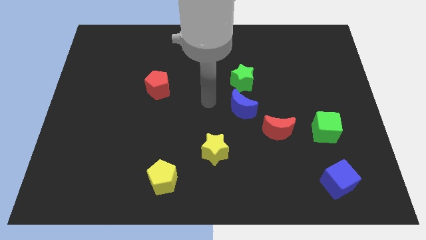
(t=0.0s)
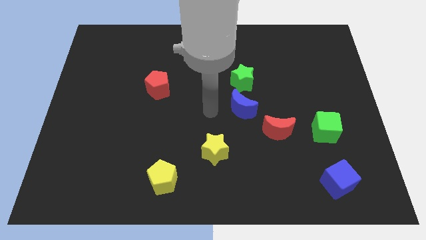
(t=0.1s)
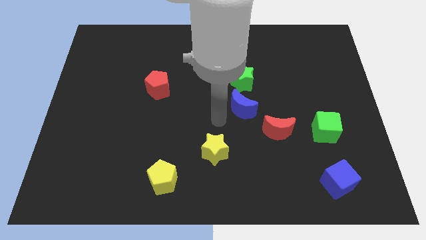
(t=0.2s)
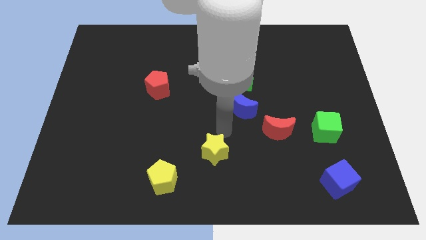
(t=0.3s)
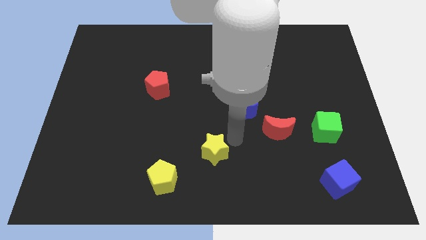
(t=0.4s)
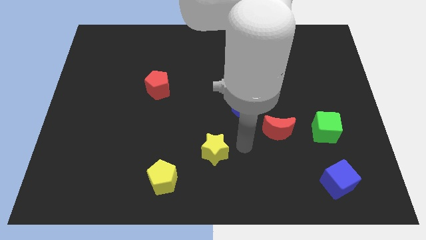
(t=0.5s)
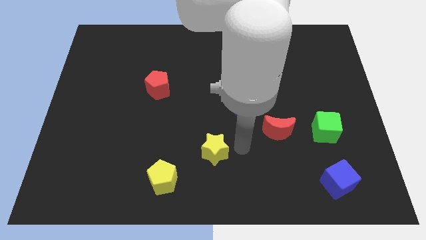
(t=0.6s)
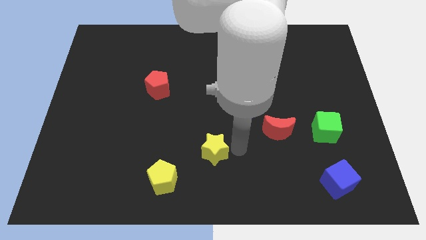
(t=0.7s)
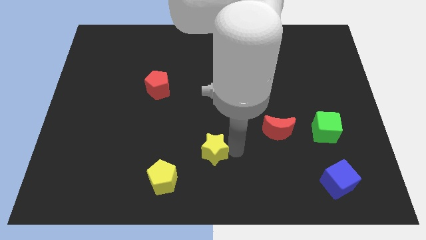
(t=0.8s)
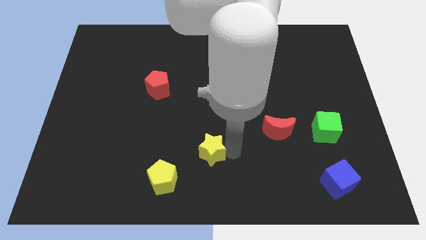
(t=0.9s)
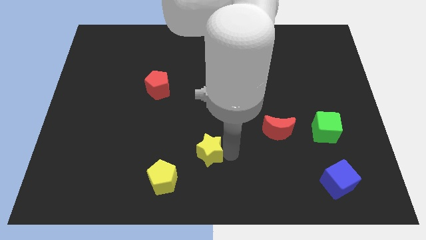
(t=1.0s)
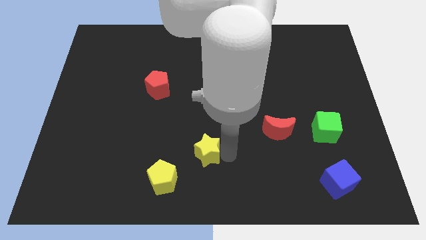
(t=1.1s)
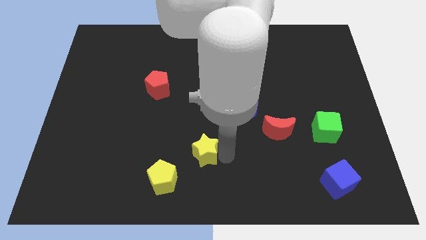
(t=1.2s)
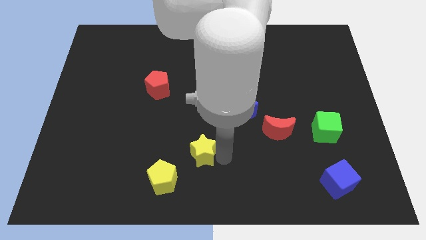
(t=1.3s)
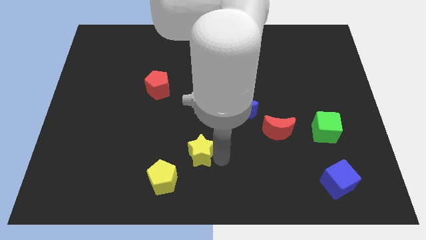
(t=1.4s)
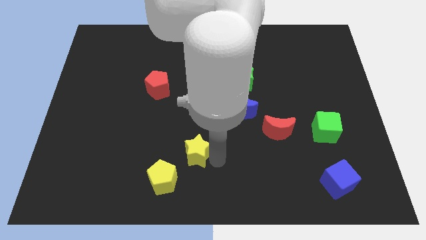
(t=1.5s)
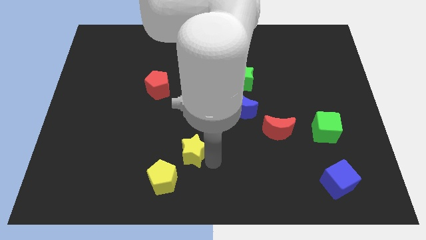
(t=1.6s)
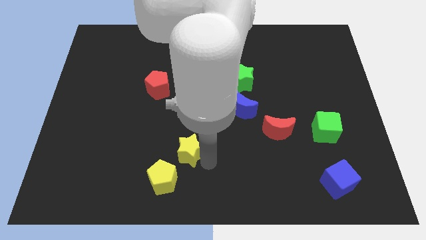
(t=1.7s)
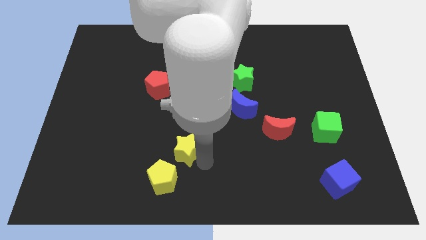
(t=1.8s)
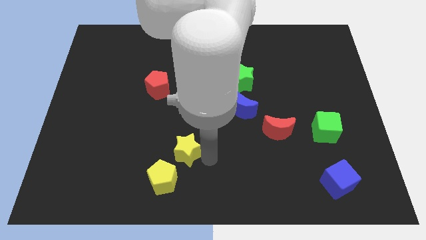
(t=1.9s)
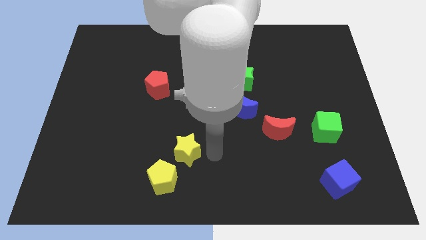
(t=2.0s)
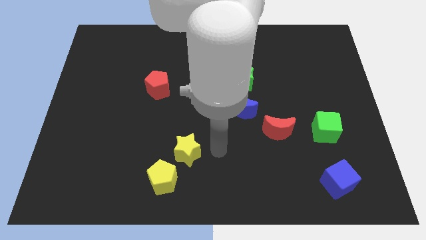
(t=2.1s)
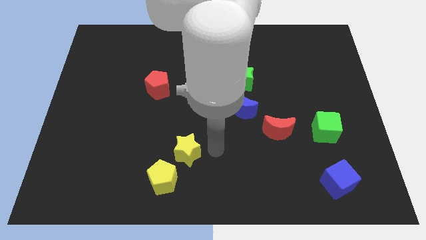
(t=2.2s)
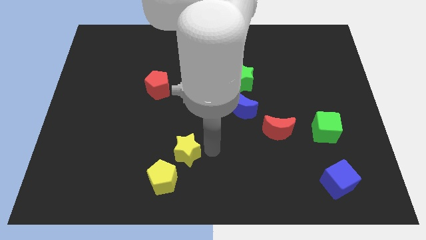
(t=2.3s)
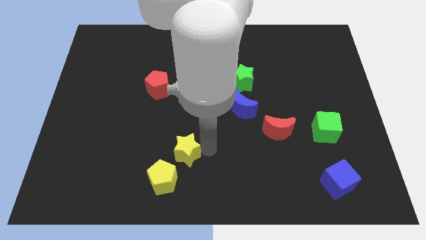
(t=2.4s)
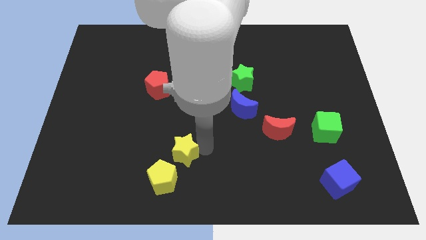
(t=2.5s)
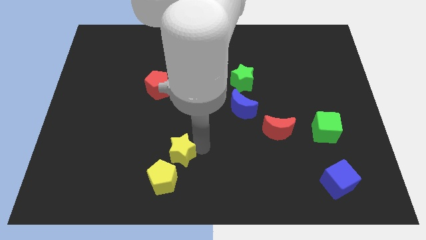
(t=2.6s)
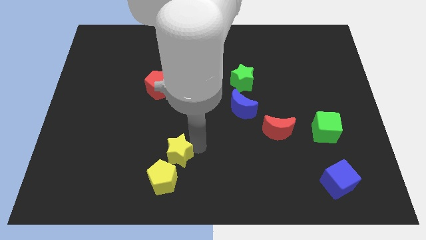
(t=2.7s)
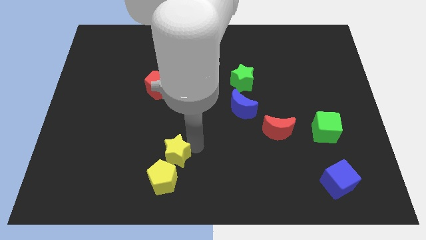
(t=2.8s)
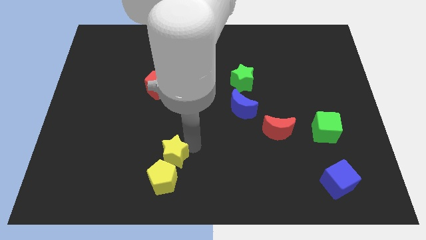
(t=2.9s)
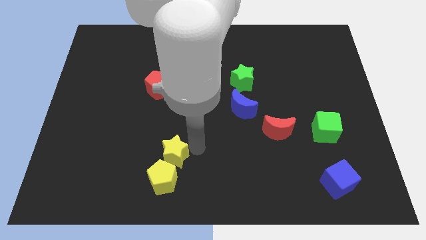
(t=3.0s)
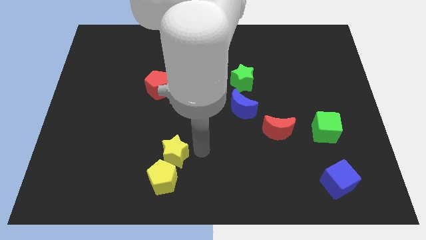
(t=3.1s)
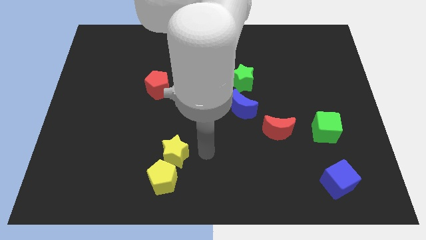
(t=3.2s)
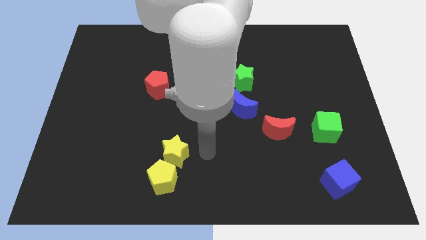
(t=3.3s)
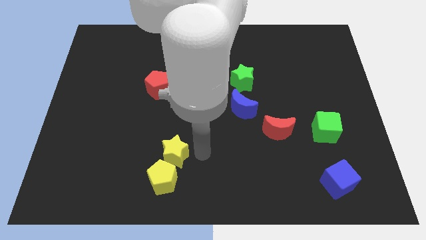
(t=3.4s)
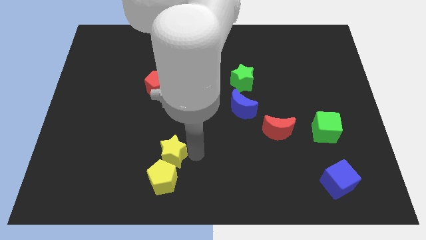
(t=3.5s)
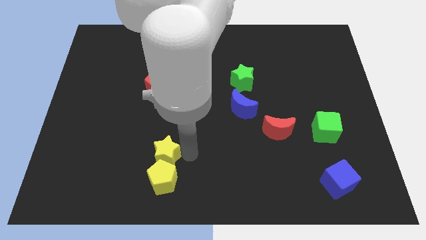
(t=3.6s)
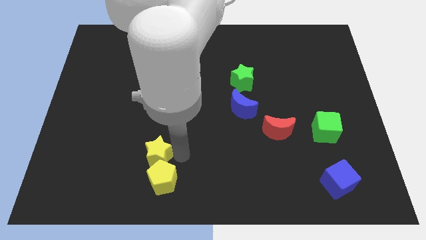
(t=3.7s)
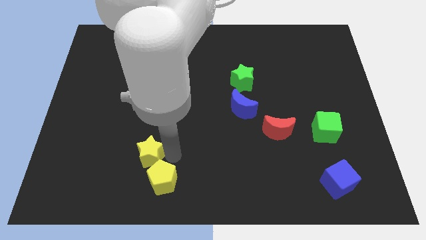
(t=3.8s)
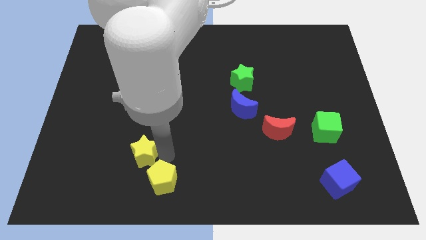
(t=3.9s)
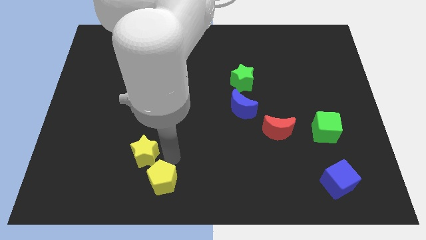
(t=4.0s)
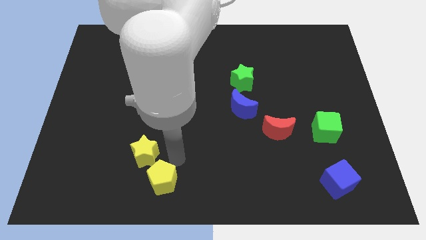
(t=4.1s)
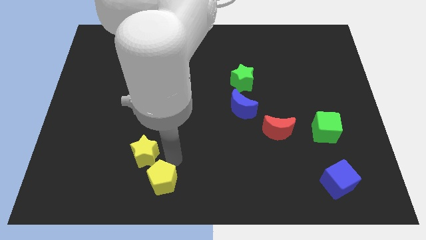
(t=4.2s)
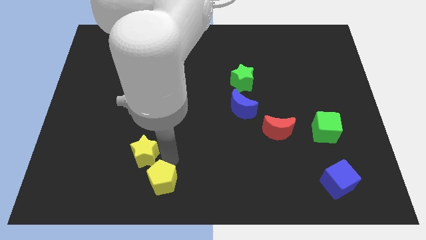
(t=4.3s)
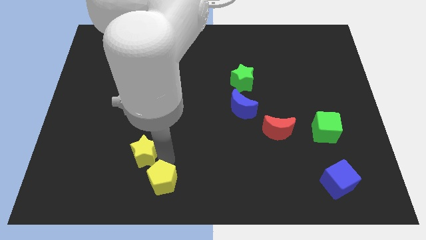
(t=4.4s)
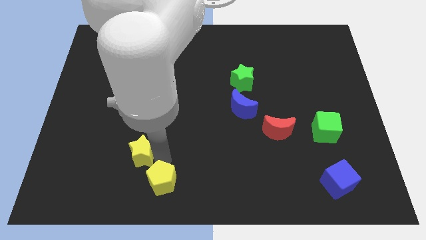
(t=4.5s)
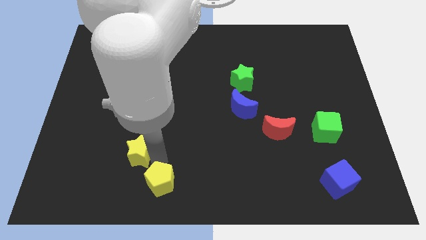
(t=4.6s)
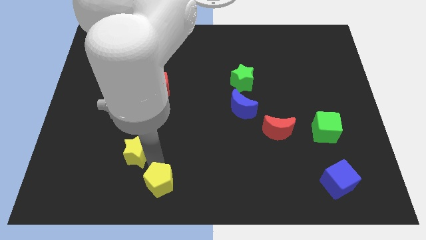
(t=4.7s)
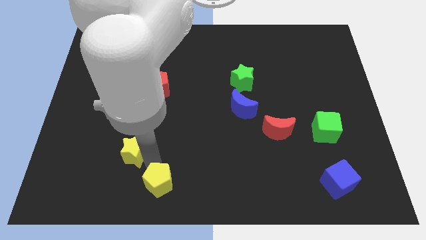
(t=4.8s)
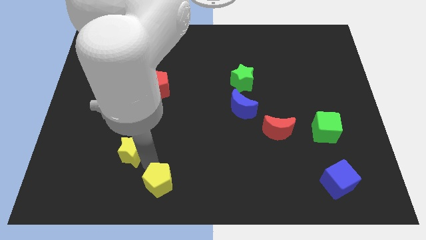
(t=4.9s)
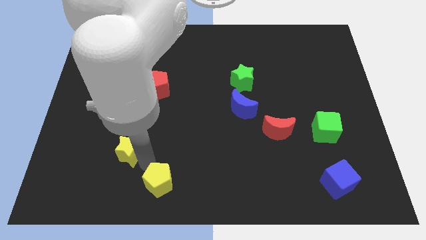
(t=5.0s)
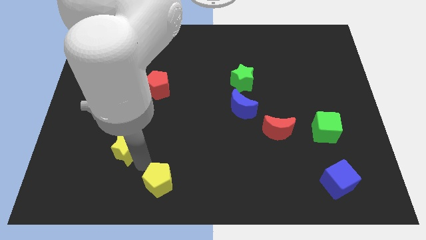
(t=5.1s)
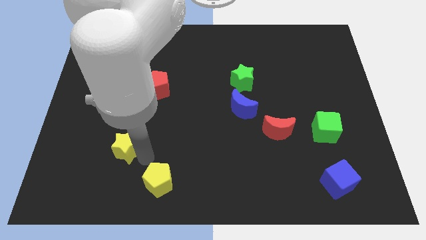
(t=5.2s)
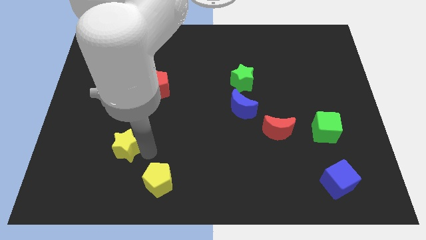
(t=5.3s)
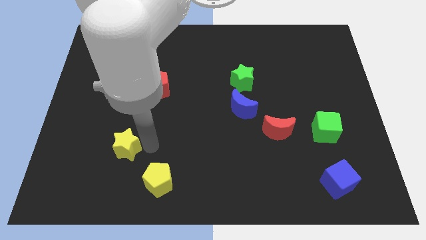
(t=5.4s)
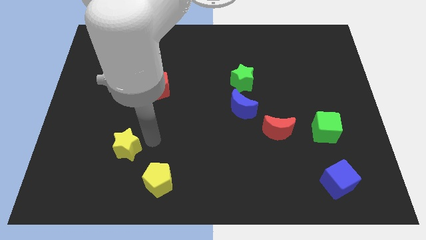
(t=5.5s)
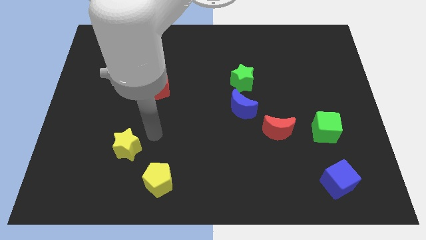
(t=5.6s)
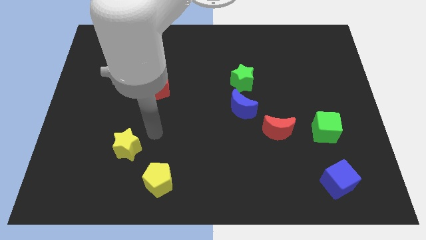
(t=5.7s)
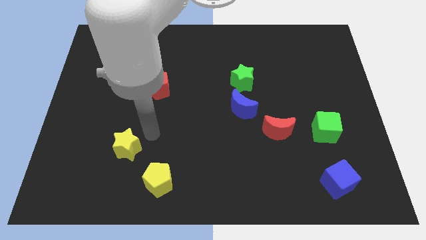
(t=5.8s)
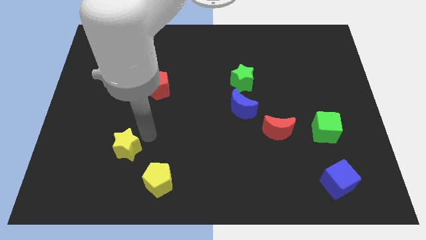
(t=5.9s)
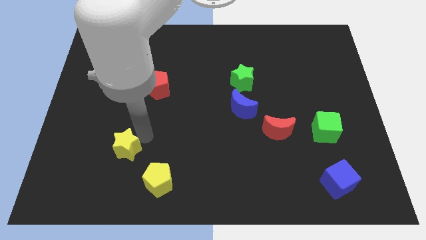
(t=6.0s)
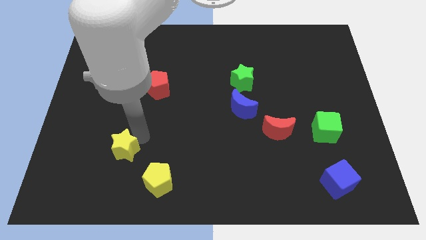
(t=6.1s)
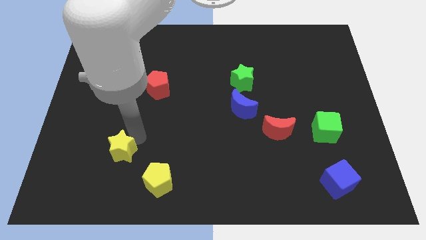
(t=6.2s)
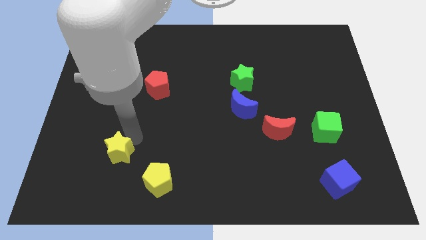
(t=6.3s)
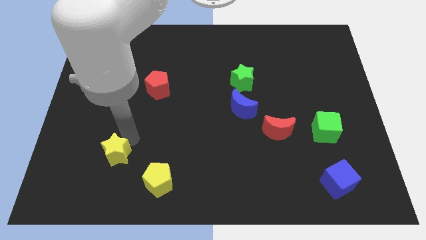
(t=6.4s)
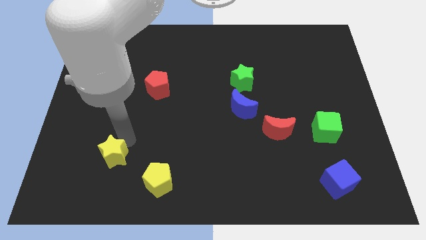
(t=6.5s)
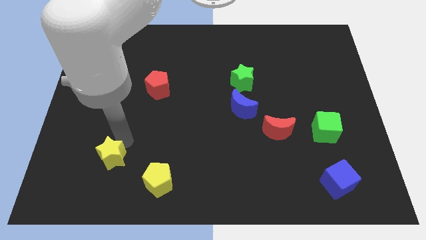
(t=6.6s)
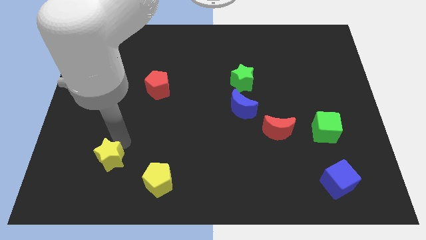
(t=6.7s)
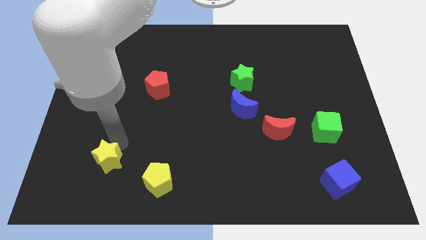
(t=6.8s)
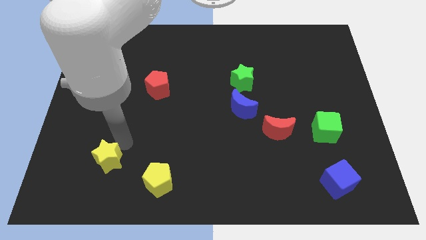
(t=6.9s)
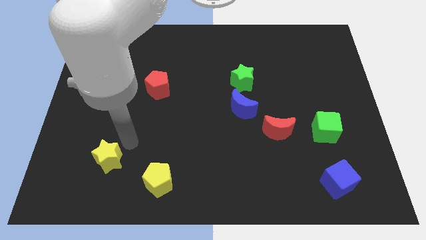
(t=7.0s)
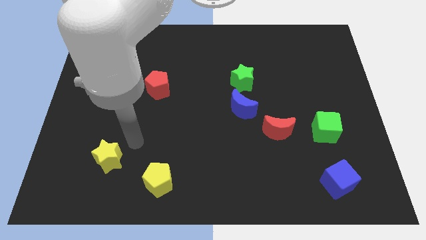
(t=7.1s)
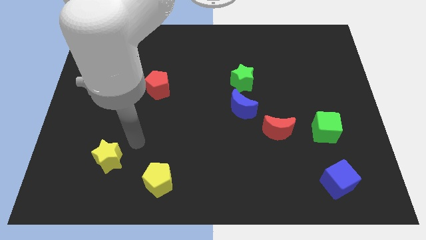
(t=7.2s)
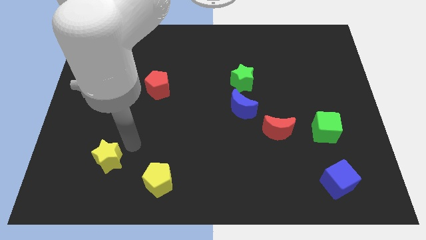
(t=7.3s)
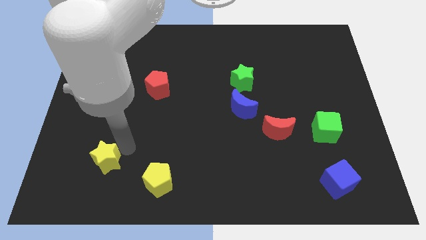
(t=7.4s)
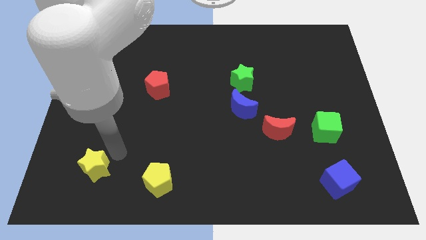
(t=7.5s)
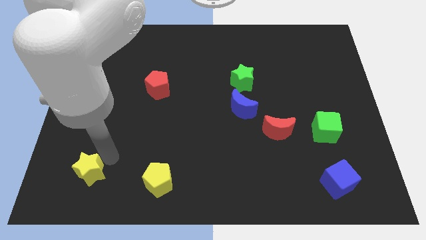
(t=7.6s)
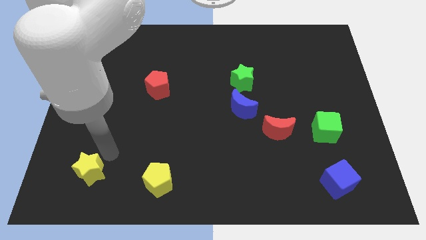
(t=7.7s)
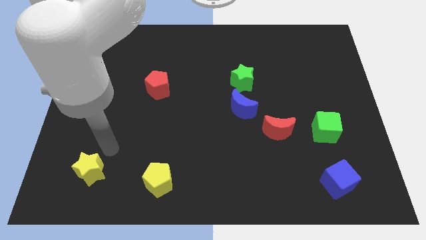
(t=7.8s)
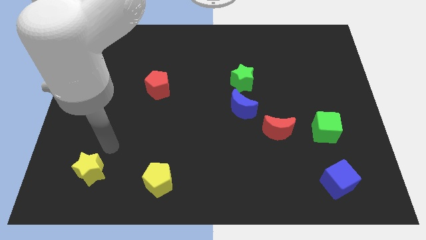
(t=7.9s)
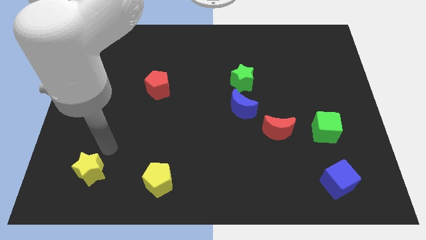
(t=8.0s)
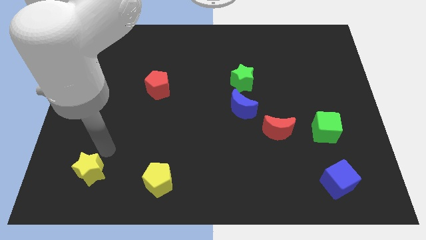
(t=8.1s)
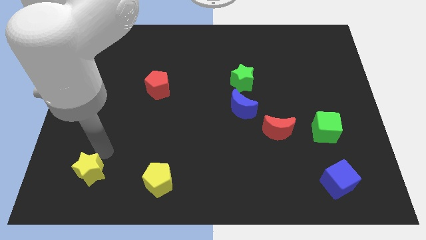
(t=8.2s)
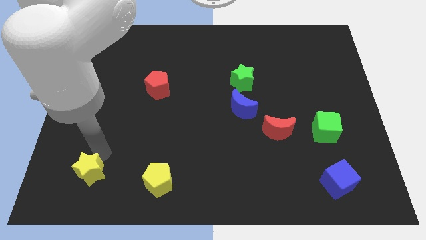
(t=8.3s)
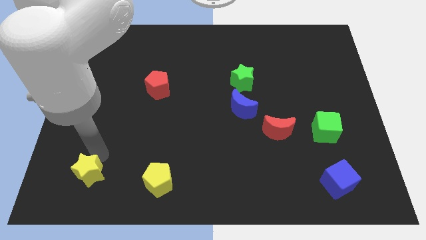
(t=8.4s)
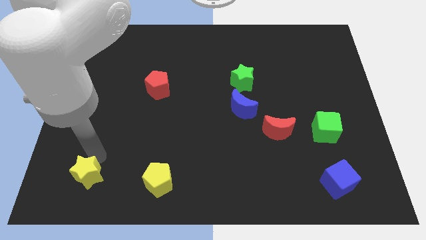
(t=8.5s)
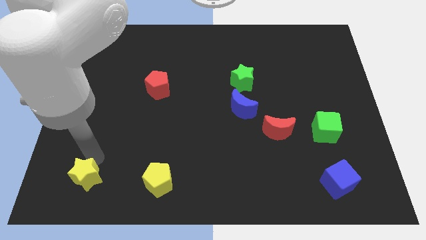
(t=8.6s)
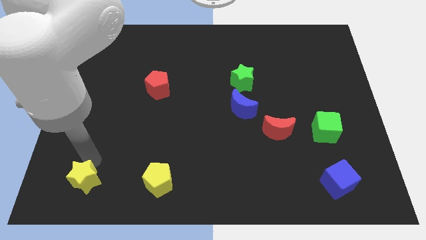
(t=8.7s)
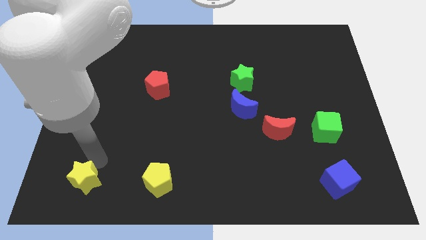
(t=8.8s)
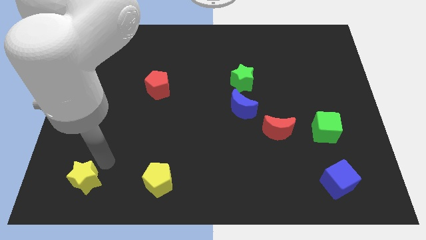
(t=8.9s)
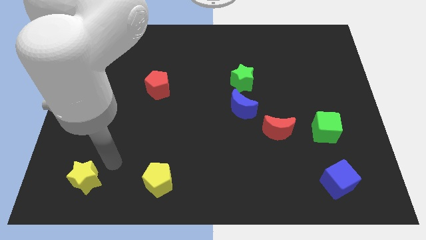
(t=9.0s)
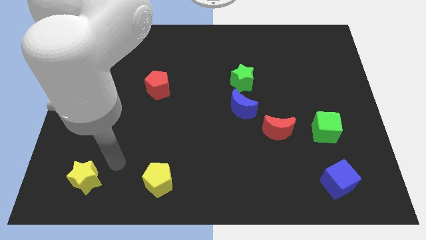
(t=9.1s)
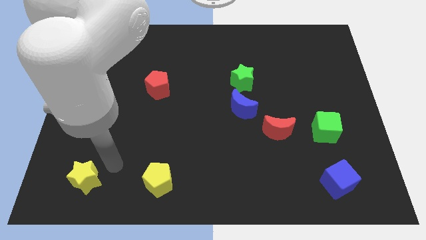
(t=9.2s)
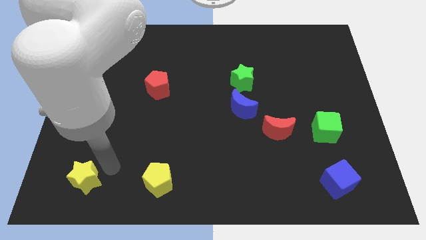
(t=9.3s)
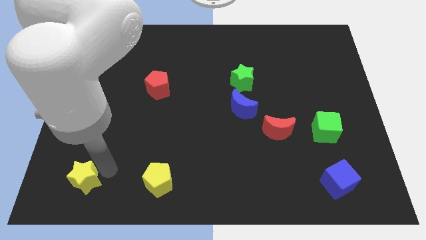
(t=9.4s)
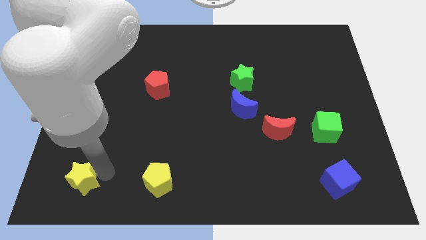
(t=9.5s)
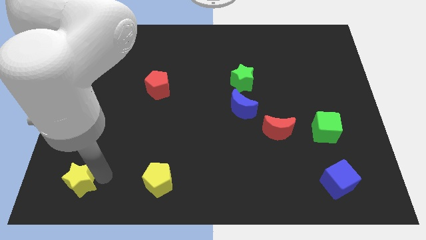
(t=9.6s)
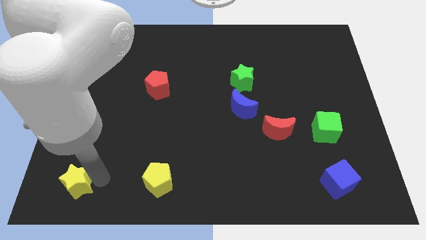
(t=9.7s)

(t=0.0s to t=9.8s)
put the yellow star to the bottom left
